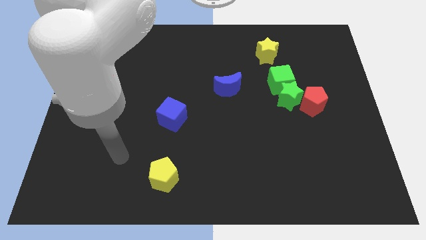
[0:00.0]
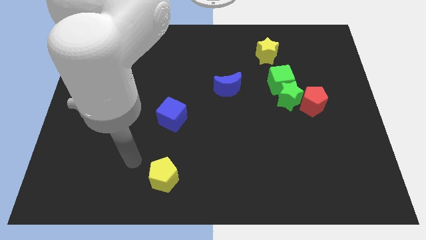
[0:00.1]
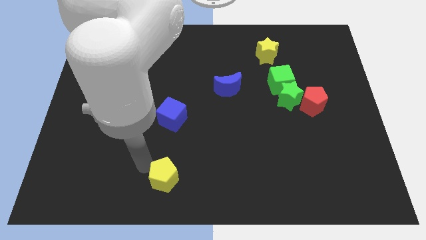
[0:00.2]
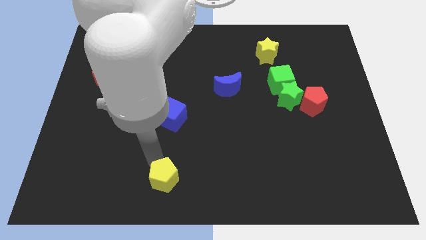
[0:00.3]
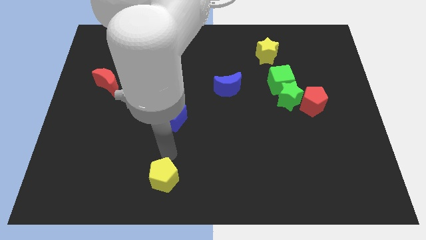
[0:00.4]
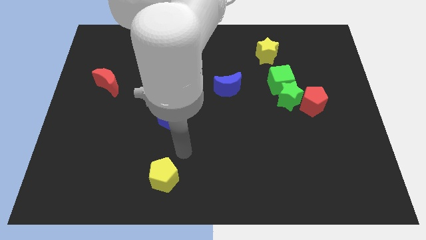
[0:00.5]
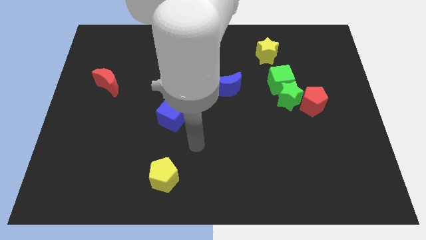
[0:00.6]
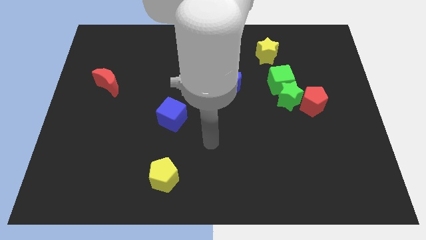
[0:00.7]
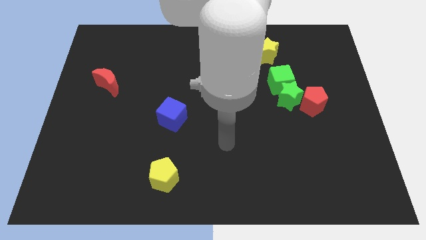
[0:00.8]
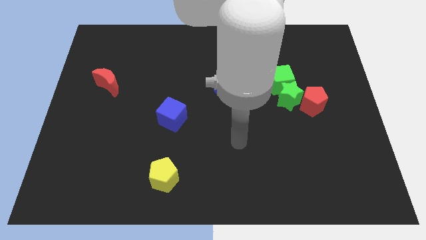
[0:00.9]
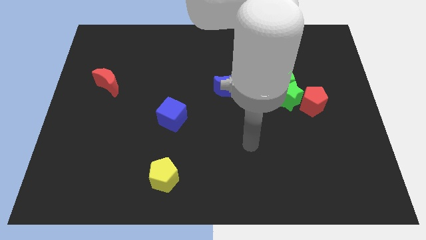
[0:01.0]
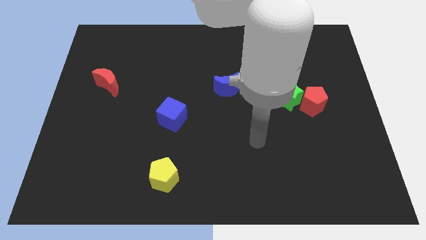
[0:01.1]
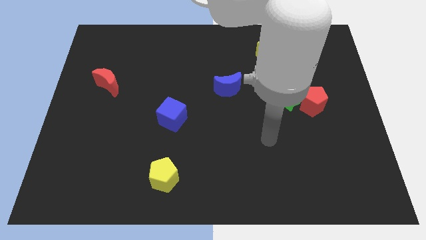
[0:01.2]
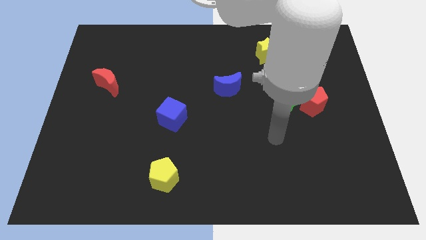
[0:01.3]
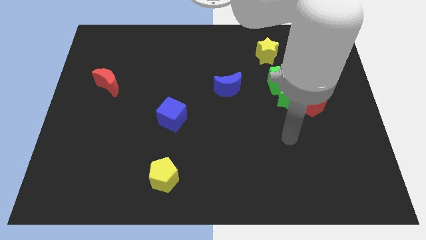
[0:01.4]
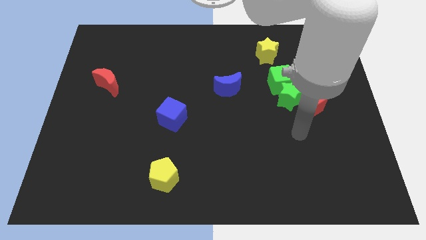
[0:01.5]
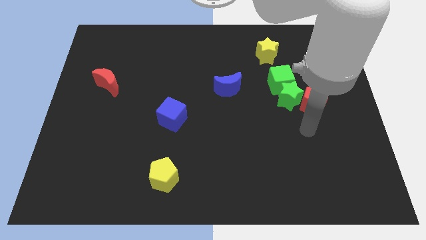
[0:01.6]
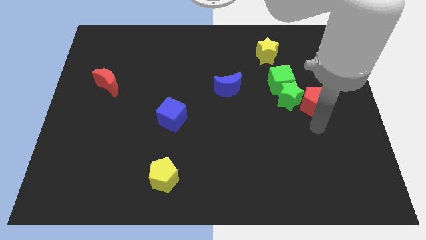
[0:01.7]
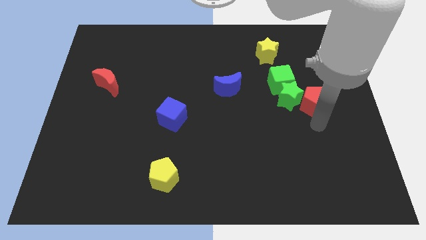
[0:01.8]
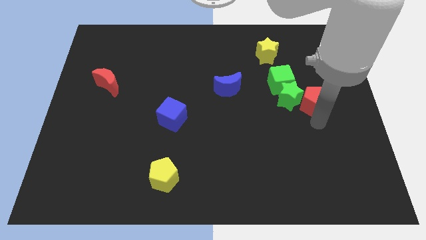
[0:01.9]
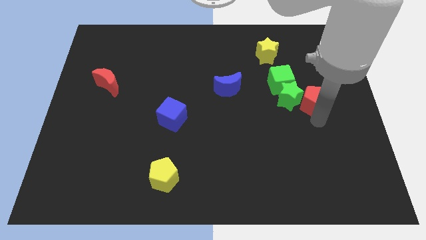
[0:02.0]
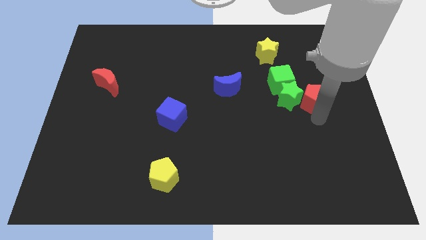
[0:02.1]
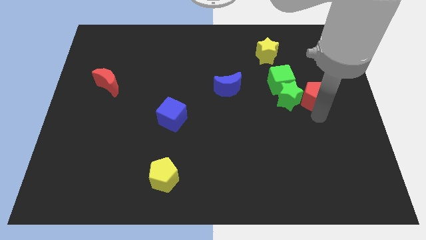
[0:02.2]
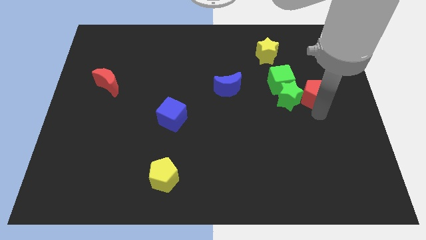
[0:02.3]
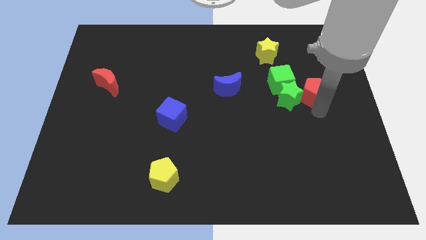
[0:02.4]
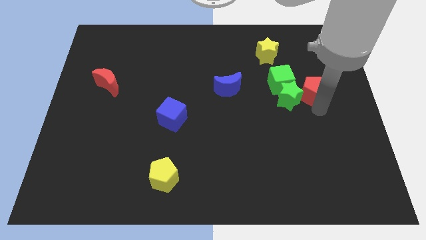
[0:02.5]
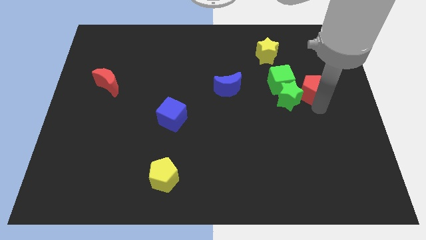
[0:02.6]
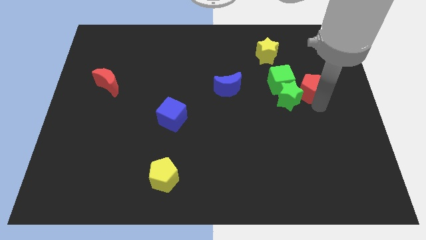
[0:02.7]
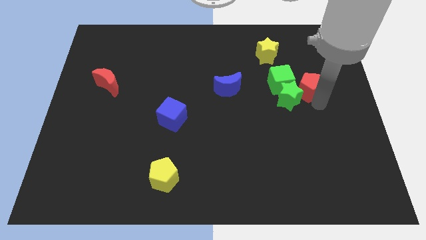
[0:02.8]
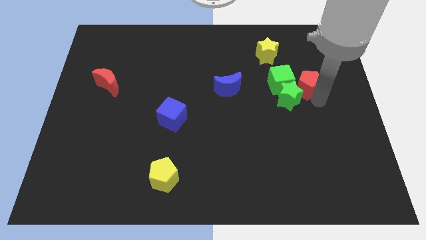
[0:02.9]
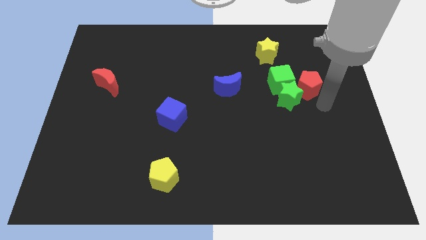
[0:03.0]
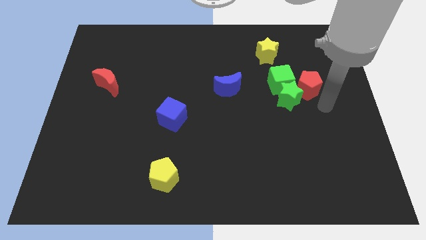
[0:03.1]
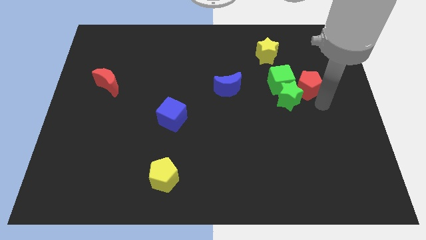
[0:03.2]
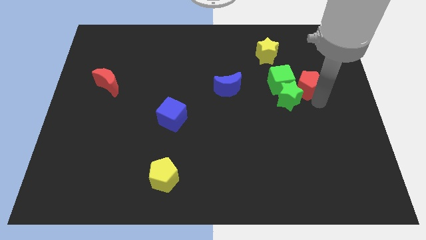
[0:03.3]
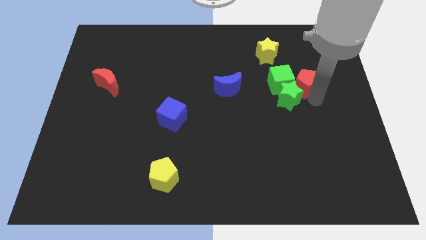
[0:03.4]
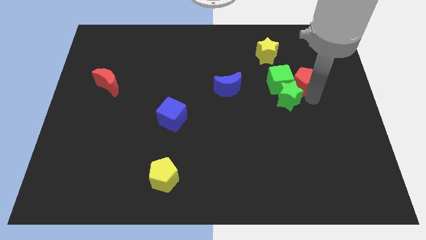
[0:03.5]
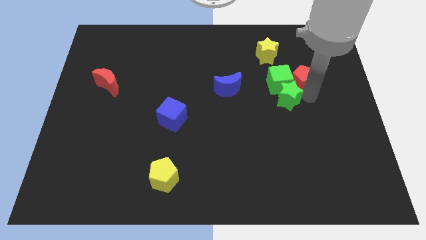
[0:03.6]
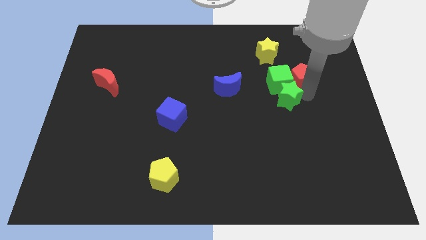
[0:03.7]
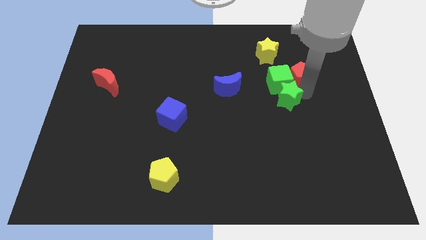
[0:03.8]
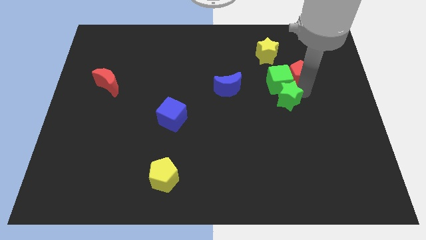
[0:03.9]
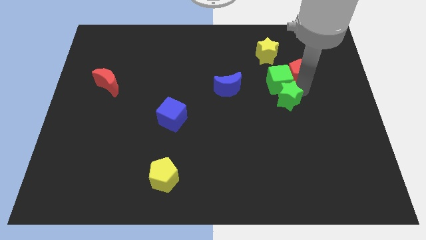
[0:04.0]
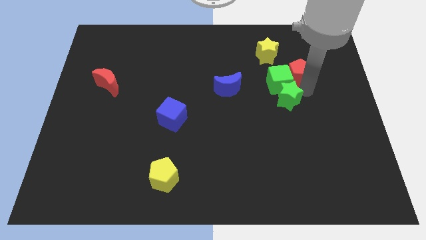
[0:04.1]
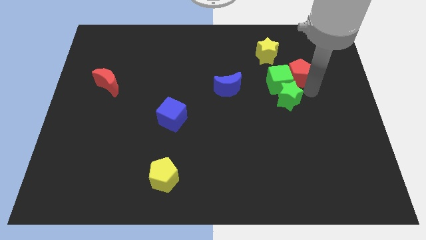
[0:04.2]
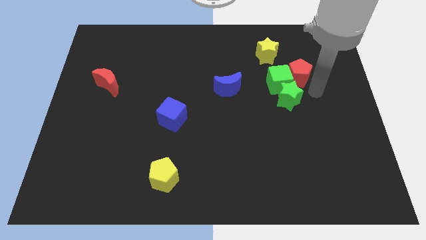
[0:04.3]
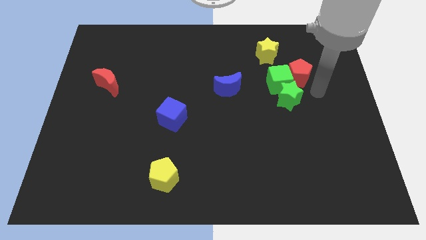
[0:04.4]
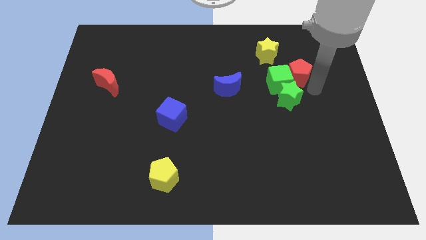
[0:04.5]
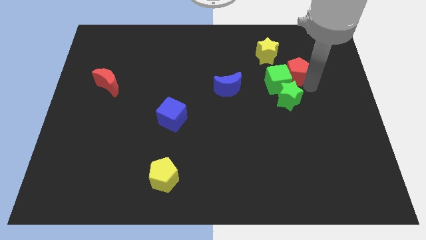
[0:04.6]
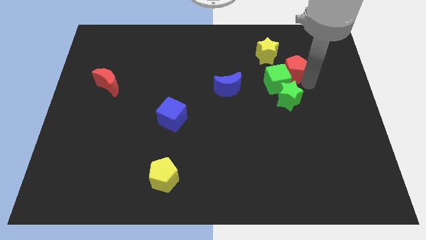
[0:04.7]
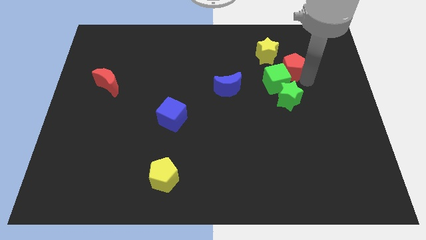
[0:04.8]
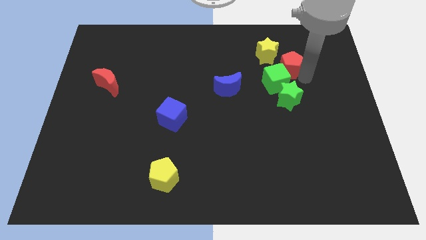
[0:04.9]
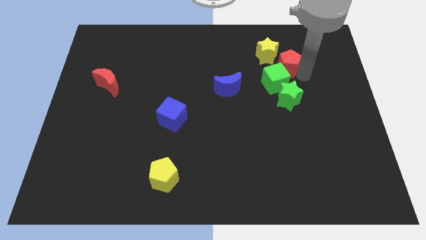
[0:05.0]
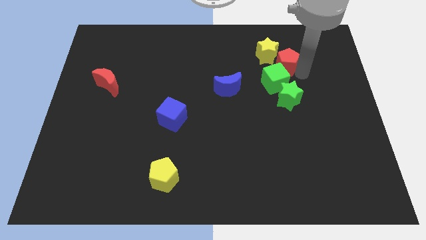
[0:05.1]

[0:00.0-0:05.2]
put the red pentagon to the yellow star

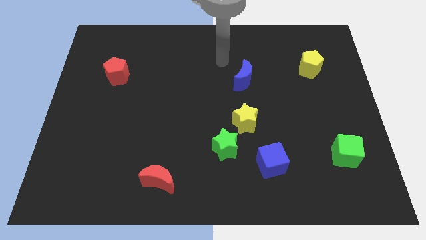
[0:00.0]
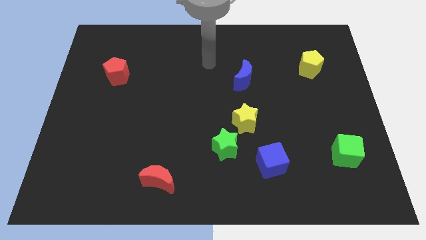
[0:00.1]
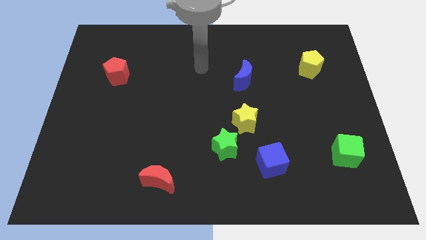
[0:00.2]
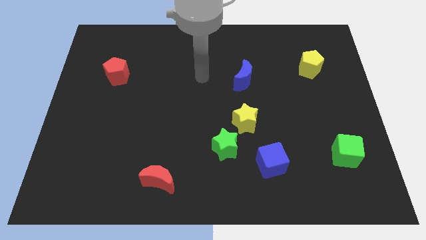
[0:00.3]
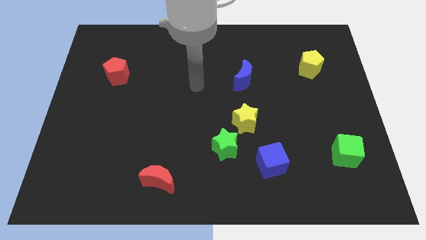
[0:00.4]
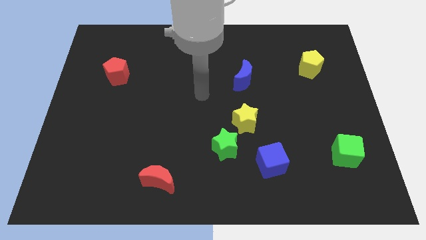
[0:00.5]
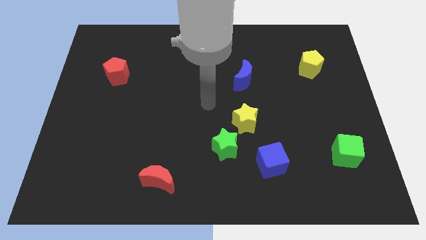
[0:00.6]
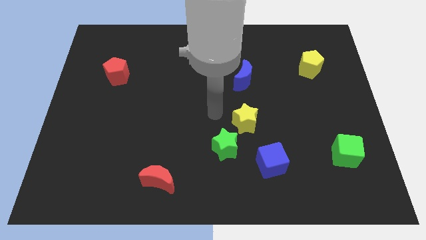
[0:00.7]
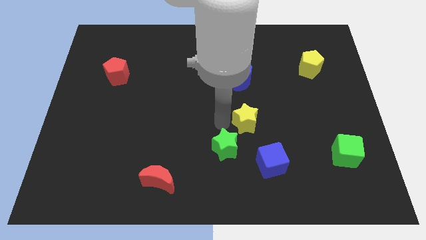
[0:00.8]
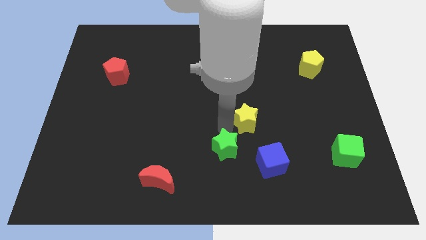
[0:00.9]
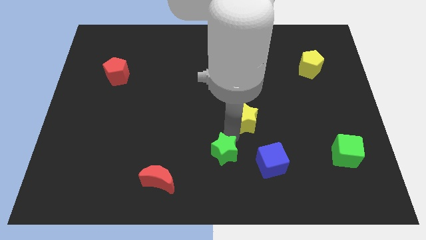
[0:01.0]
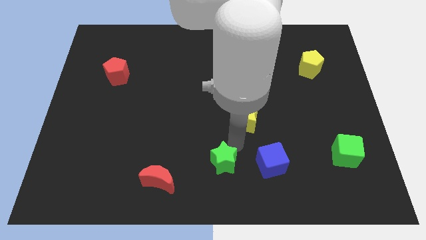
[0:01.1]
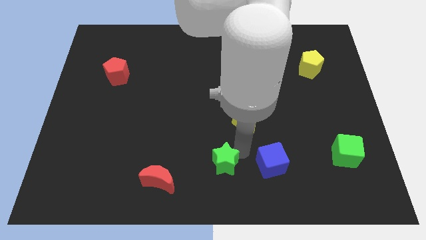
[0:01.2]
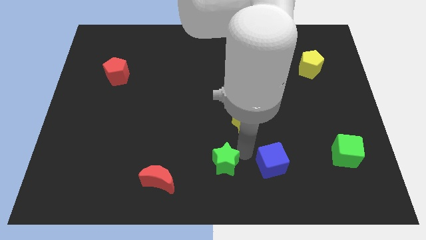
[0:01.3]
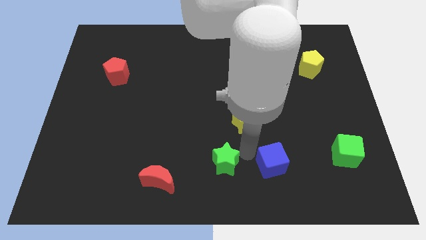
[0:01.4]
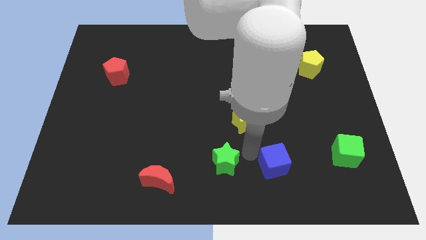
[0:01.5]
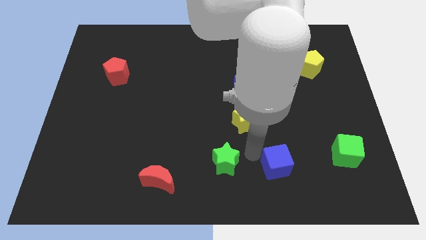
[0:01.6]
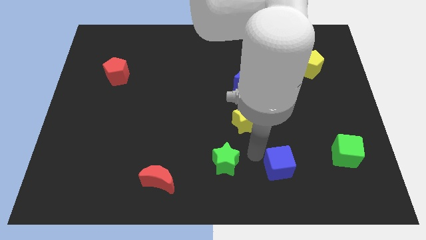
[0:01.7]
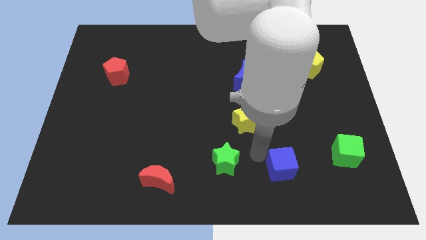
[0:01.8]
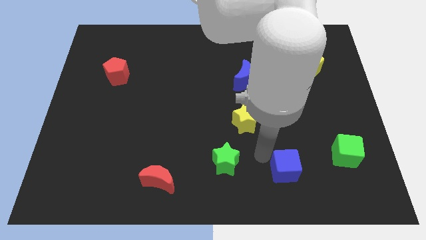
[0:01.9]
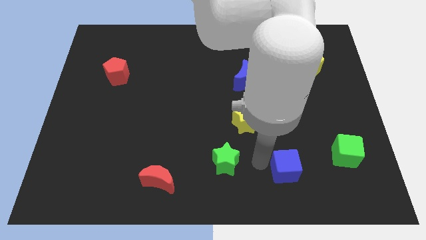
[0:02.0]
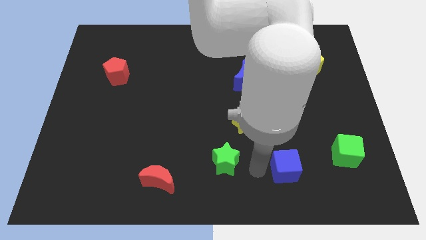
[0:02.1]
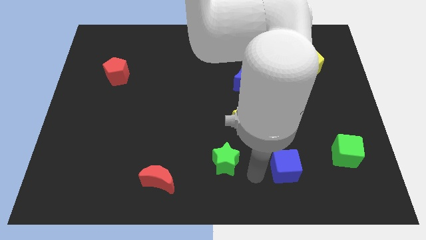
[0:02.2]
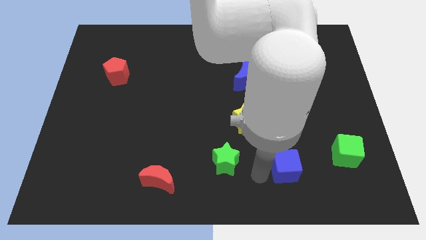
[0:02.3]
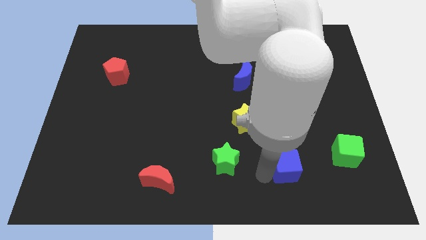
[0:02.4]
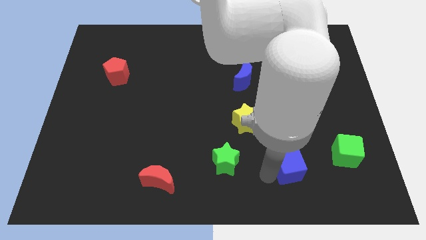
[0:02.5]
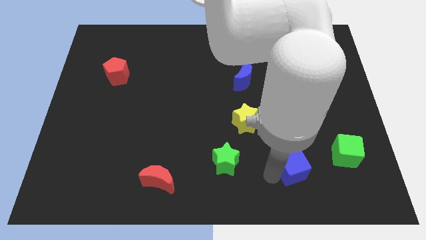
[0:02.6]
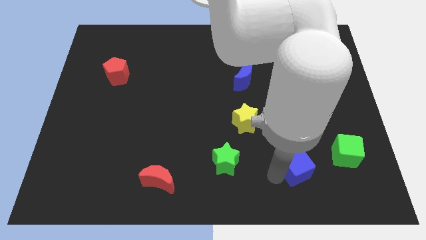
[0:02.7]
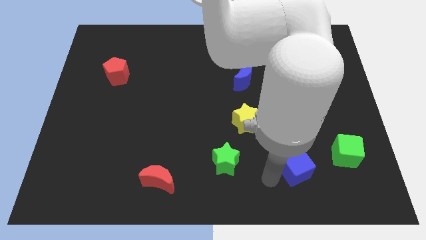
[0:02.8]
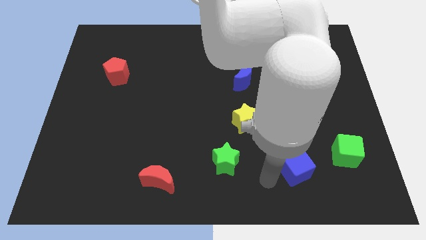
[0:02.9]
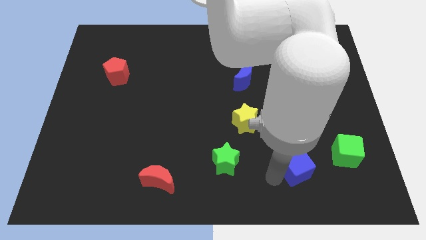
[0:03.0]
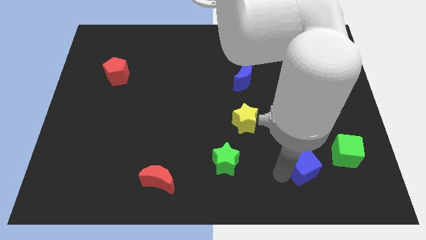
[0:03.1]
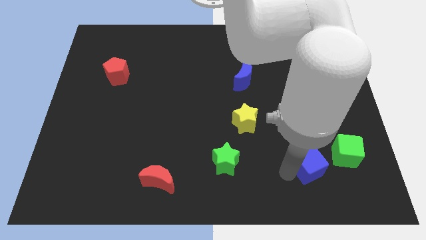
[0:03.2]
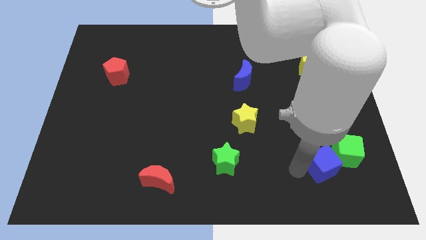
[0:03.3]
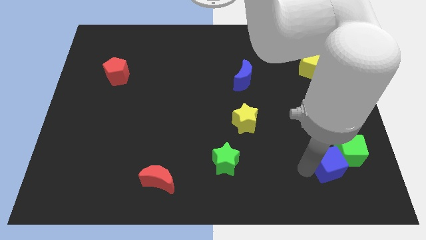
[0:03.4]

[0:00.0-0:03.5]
put the blue cube next to the green cube
